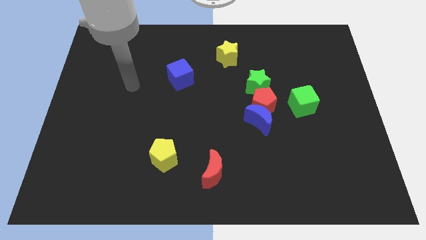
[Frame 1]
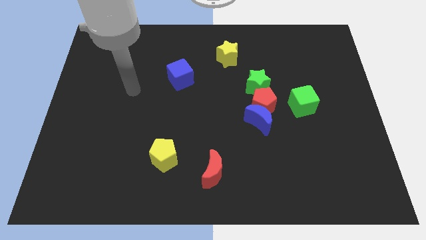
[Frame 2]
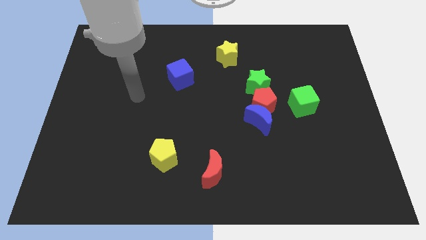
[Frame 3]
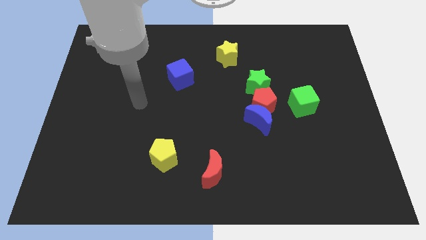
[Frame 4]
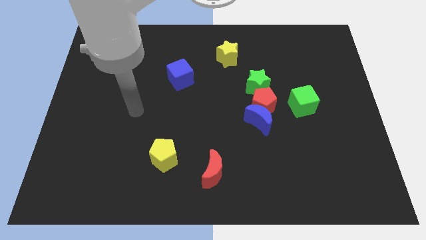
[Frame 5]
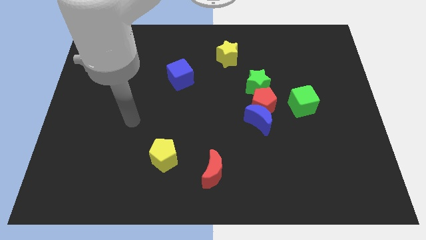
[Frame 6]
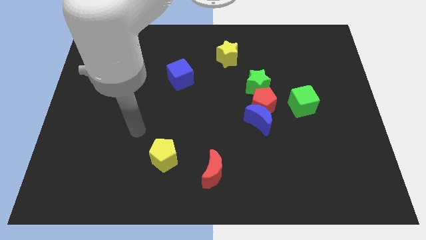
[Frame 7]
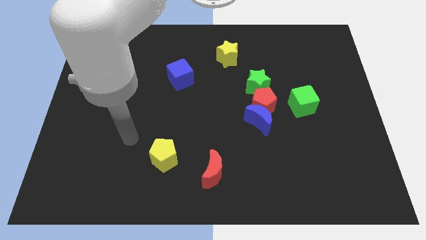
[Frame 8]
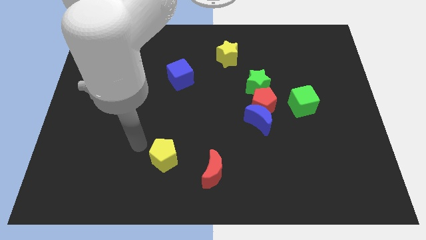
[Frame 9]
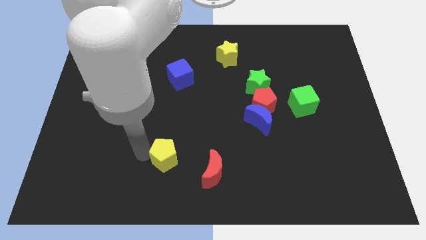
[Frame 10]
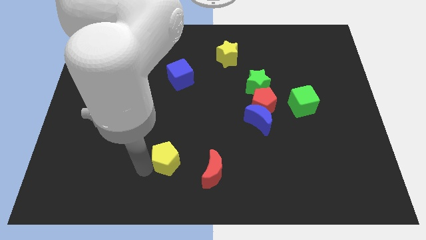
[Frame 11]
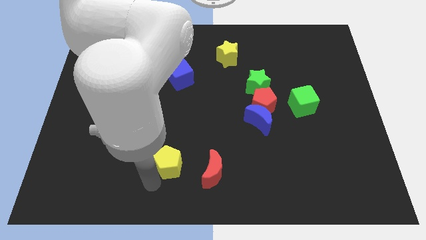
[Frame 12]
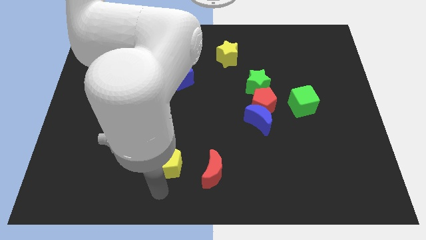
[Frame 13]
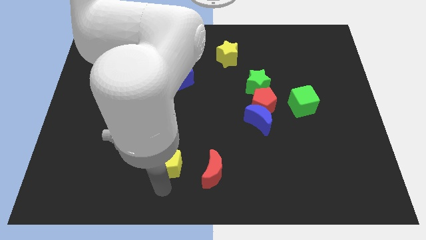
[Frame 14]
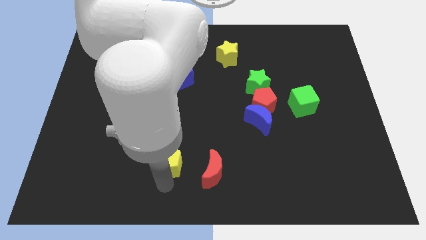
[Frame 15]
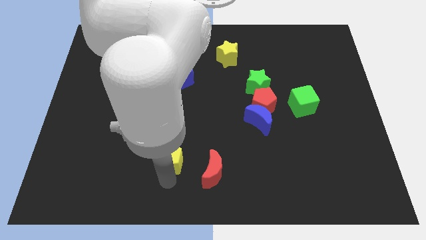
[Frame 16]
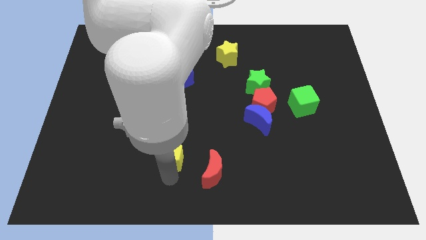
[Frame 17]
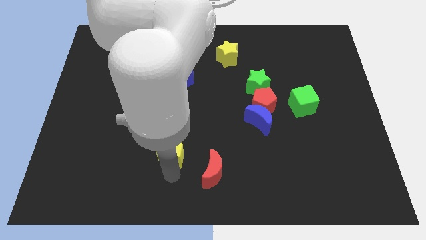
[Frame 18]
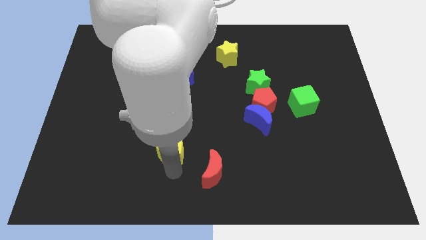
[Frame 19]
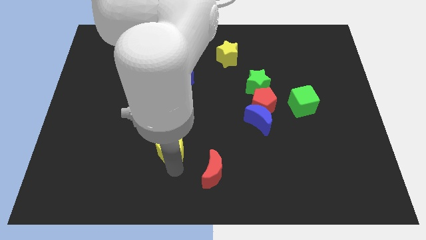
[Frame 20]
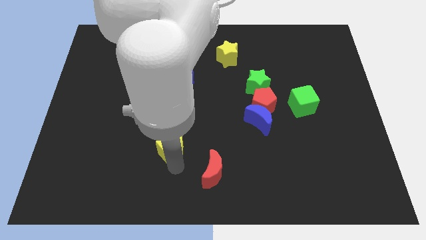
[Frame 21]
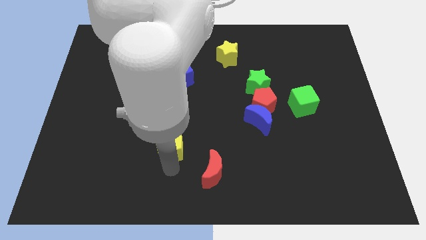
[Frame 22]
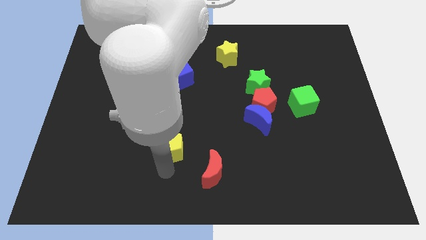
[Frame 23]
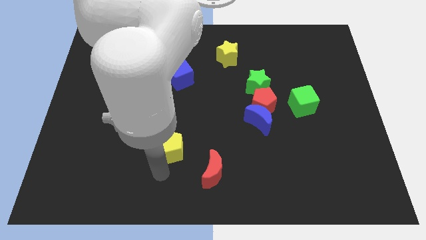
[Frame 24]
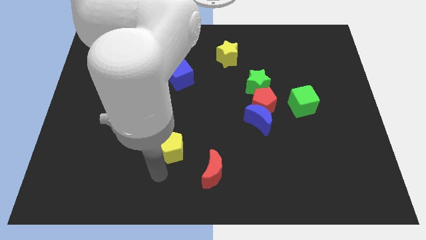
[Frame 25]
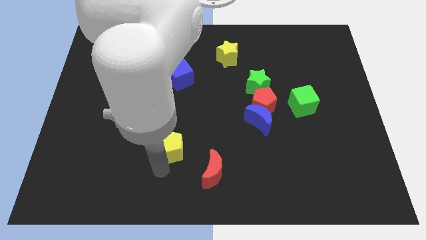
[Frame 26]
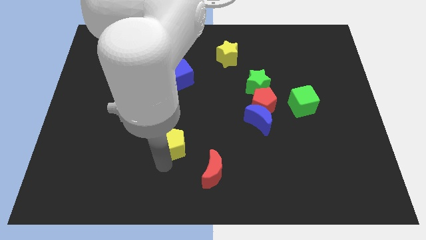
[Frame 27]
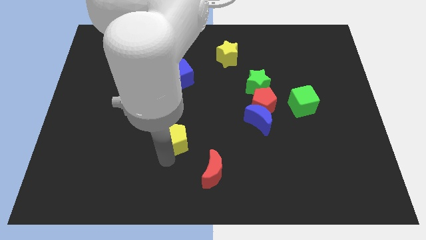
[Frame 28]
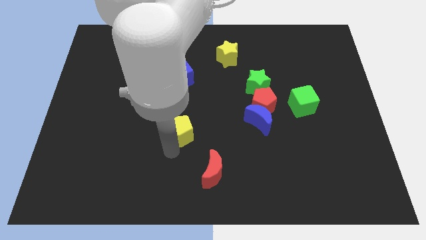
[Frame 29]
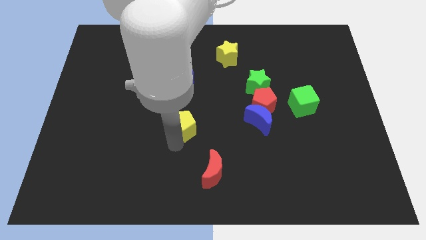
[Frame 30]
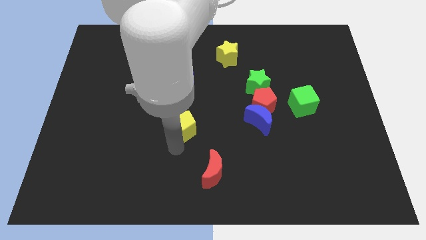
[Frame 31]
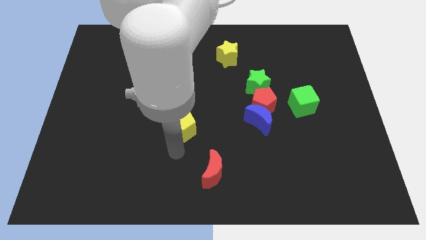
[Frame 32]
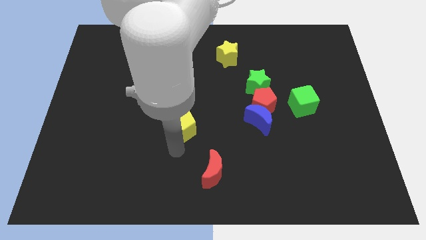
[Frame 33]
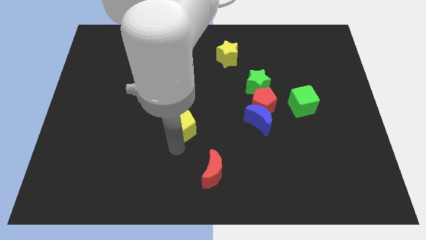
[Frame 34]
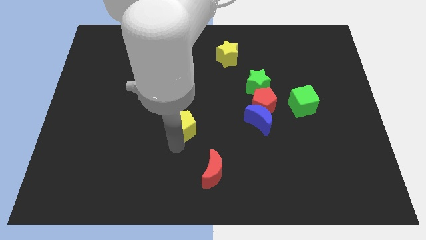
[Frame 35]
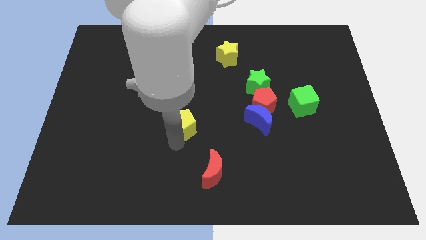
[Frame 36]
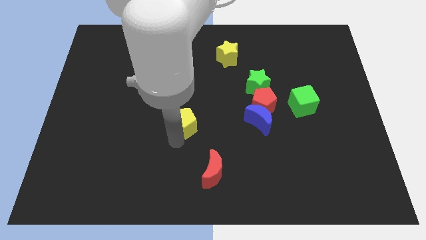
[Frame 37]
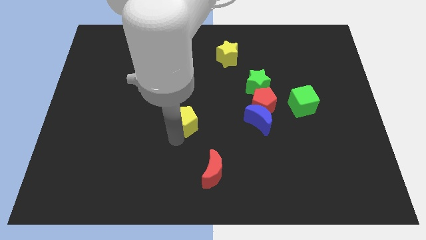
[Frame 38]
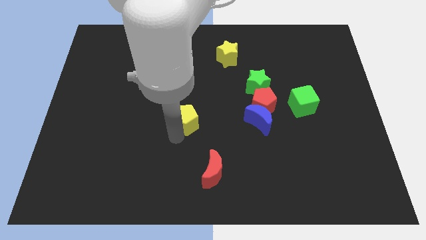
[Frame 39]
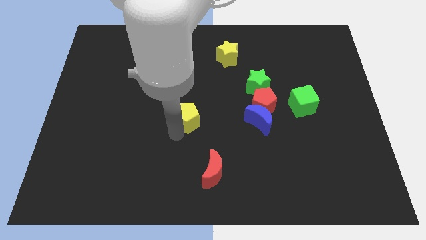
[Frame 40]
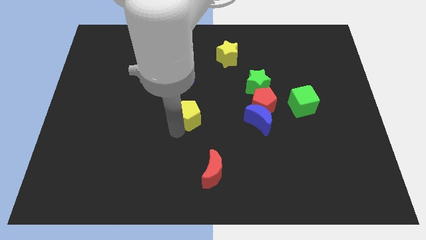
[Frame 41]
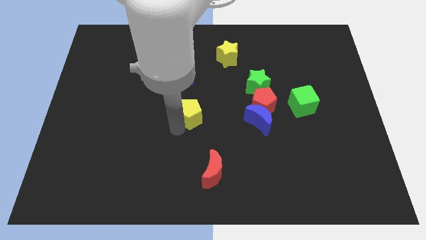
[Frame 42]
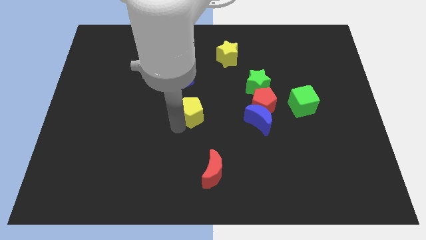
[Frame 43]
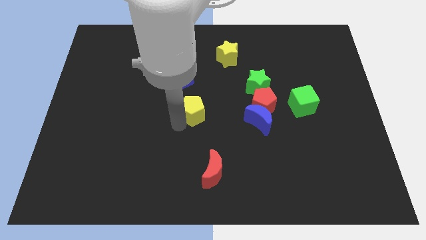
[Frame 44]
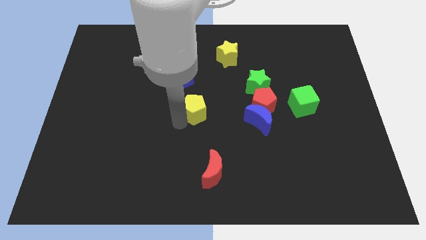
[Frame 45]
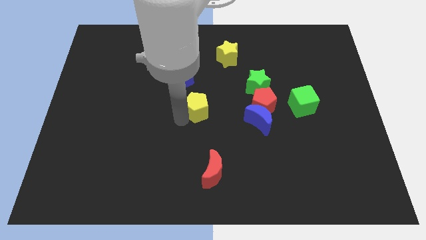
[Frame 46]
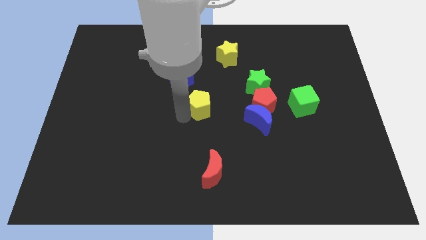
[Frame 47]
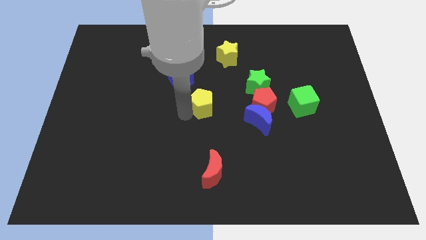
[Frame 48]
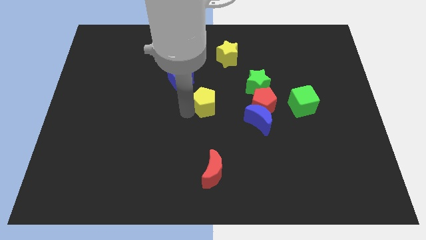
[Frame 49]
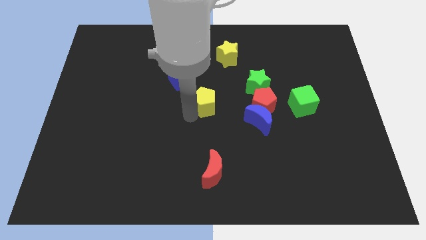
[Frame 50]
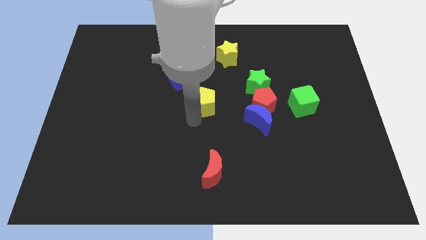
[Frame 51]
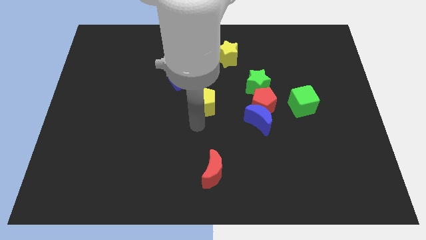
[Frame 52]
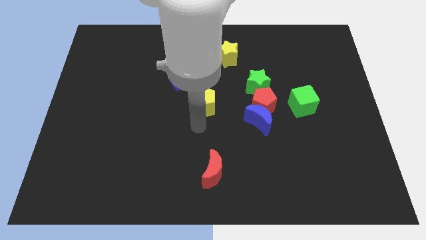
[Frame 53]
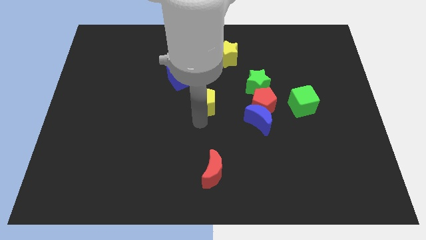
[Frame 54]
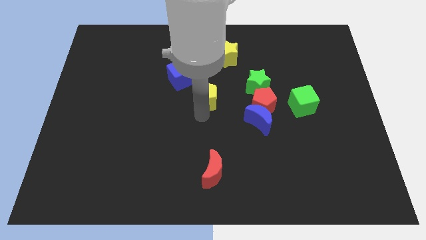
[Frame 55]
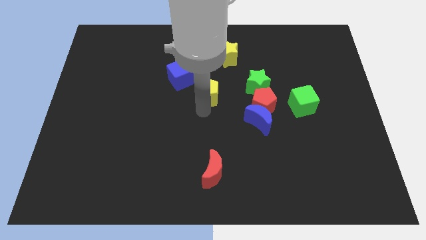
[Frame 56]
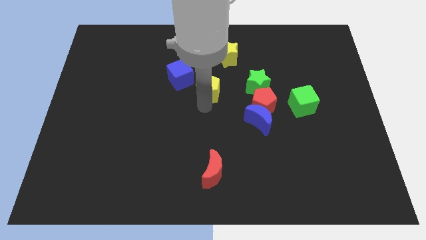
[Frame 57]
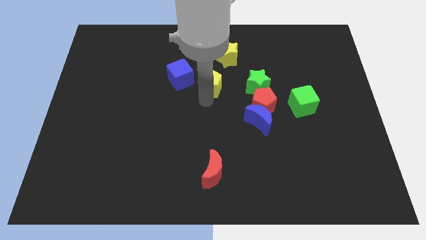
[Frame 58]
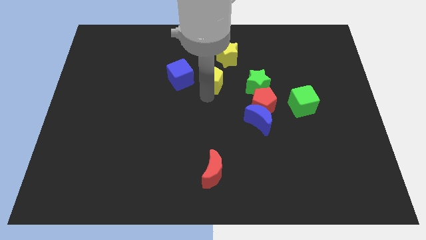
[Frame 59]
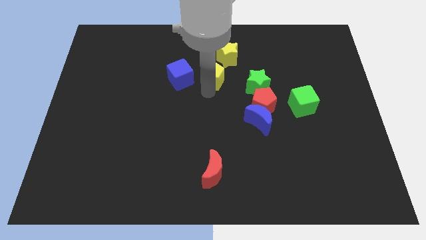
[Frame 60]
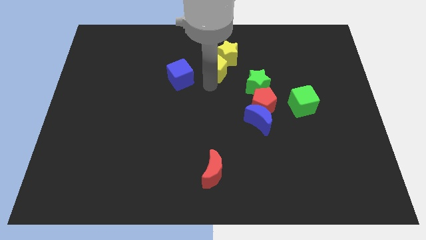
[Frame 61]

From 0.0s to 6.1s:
slide the yellow pentagon next to the yellow star
